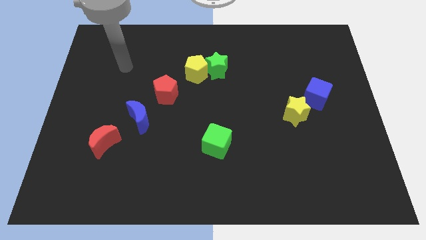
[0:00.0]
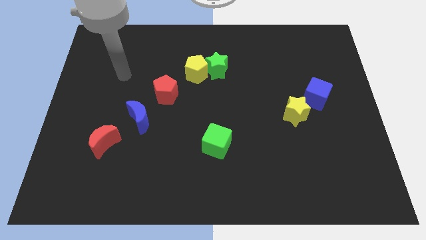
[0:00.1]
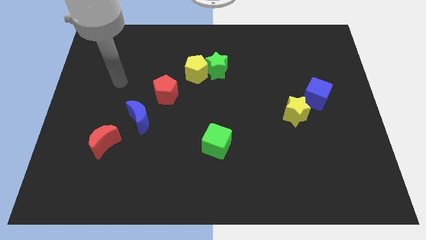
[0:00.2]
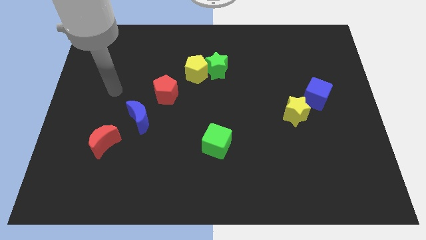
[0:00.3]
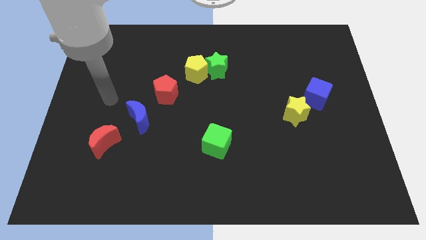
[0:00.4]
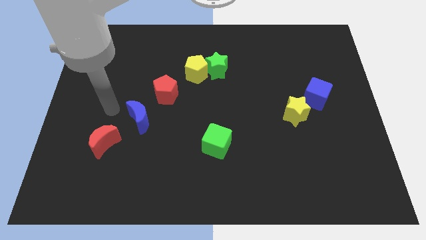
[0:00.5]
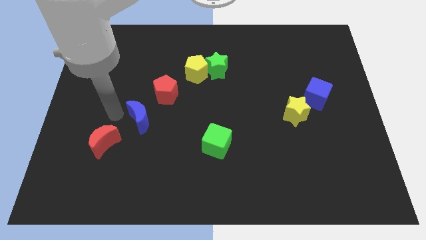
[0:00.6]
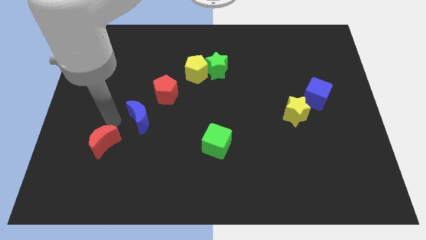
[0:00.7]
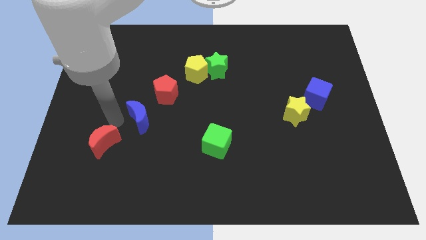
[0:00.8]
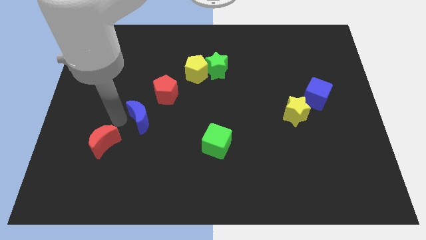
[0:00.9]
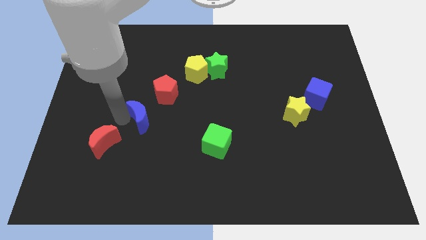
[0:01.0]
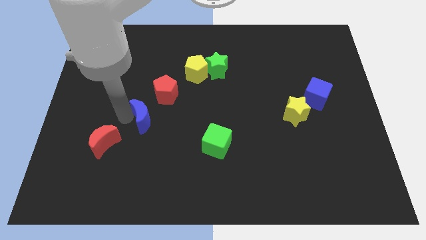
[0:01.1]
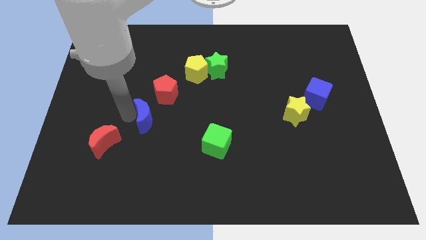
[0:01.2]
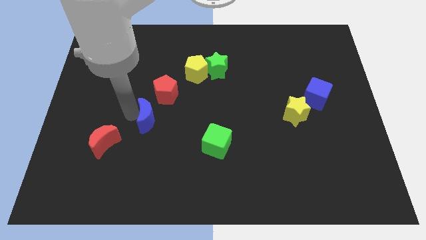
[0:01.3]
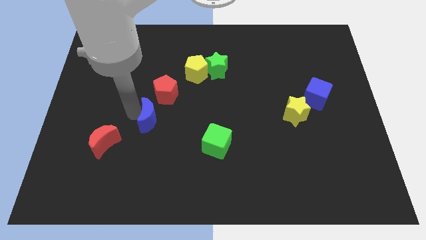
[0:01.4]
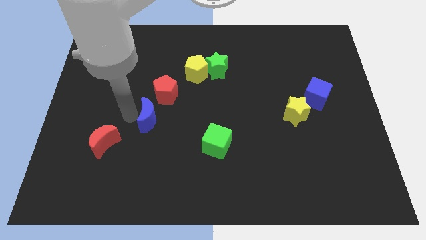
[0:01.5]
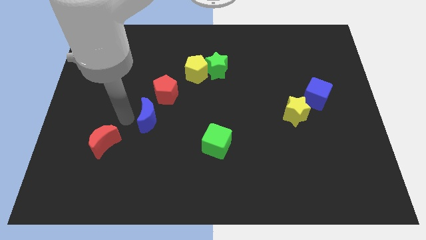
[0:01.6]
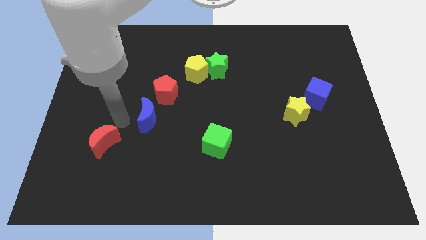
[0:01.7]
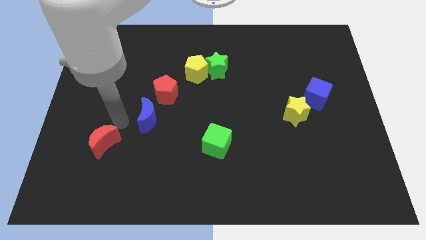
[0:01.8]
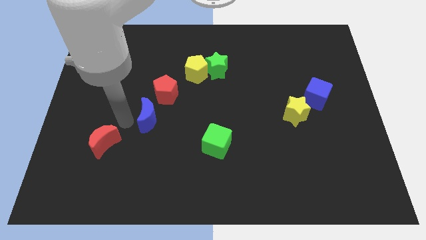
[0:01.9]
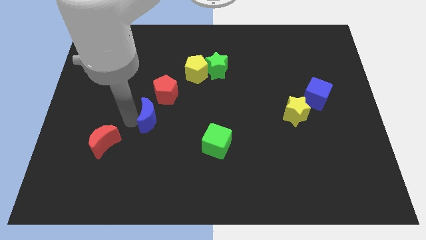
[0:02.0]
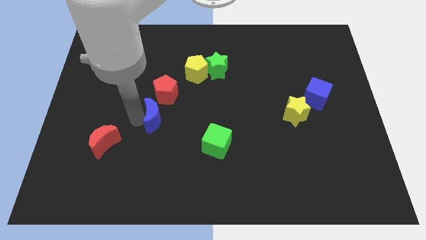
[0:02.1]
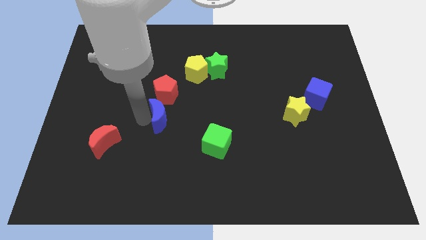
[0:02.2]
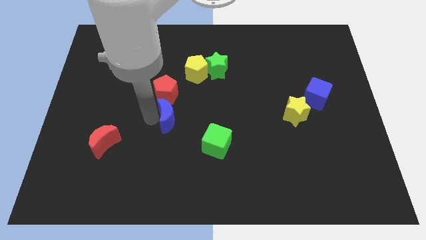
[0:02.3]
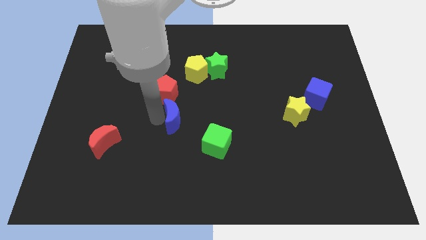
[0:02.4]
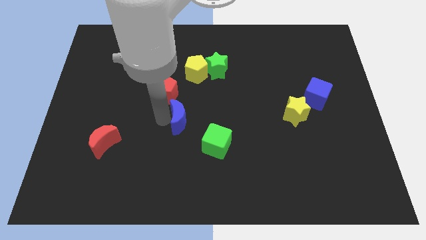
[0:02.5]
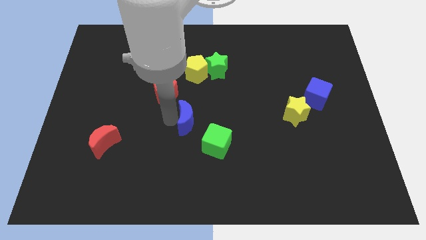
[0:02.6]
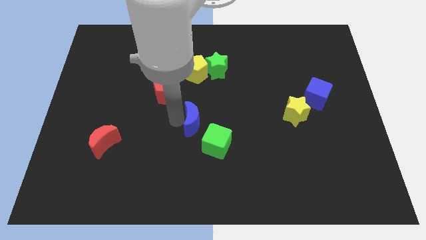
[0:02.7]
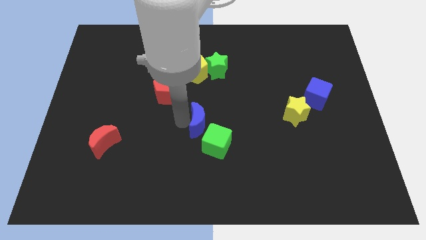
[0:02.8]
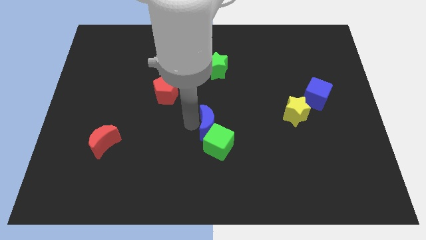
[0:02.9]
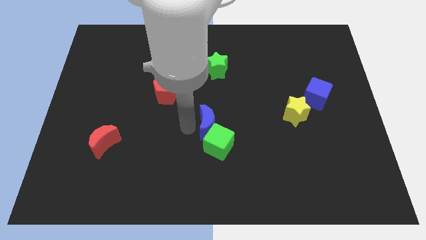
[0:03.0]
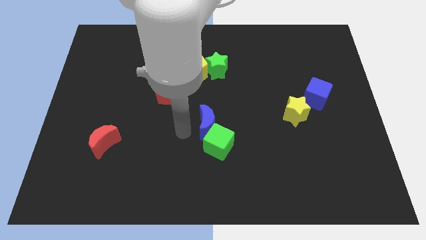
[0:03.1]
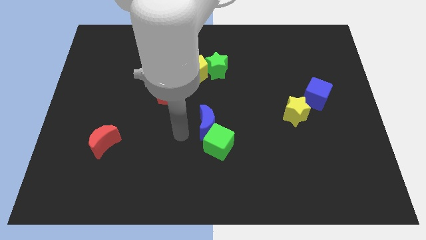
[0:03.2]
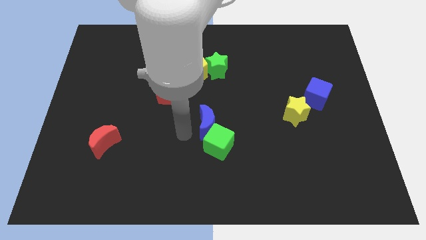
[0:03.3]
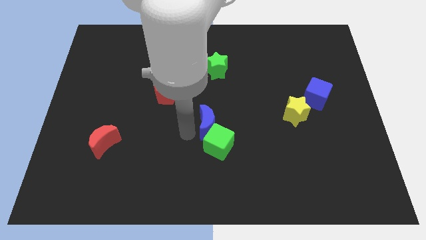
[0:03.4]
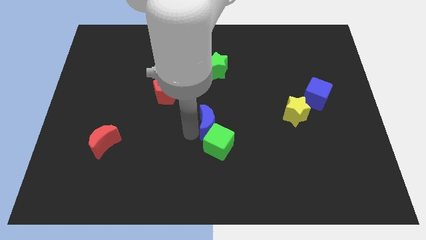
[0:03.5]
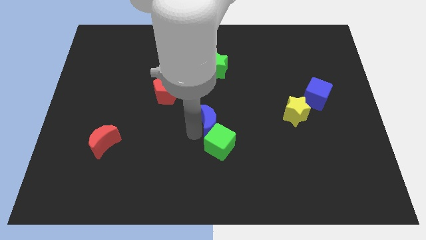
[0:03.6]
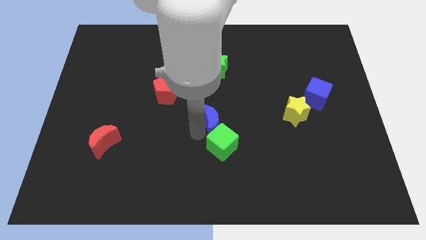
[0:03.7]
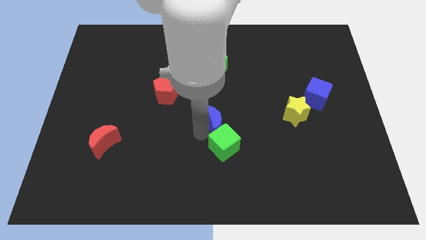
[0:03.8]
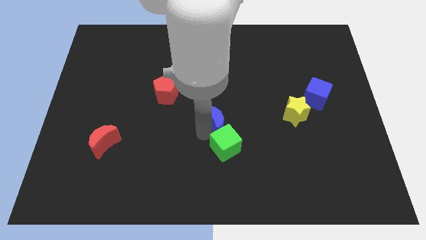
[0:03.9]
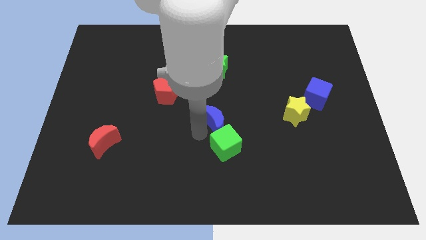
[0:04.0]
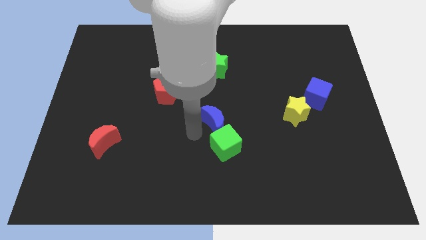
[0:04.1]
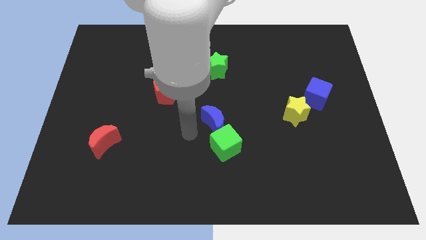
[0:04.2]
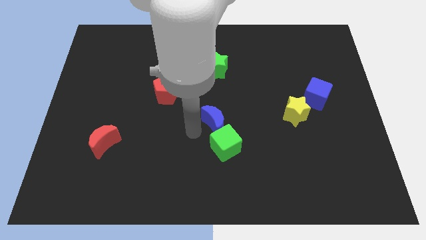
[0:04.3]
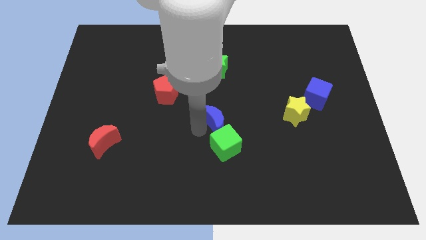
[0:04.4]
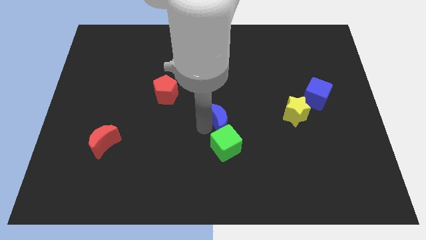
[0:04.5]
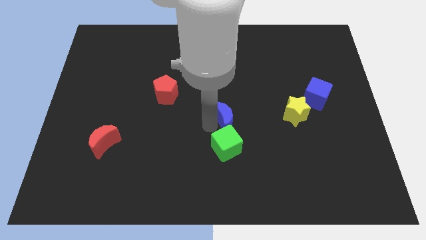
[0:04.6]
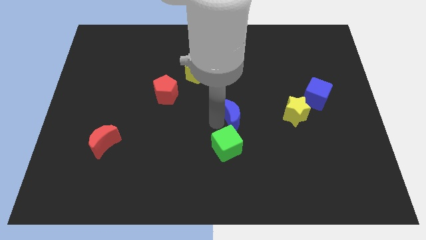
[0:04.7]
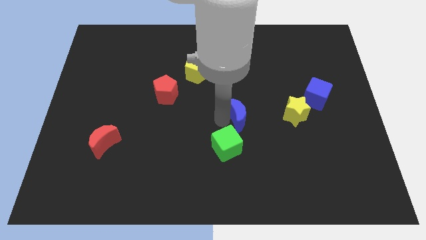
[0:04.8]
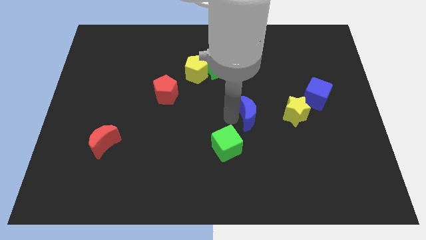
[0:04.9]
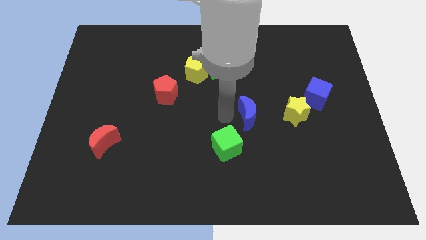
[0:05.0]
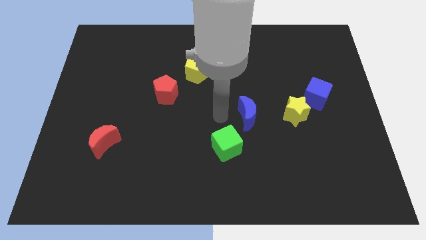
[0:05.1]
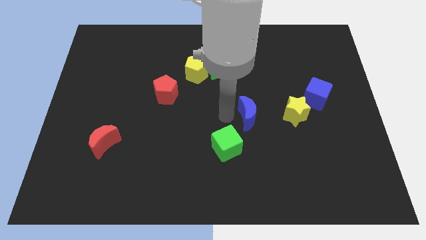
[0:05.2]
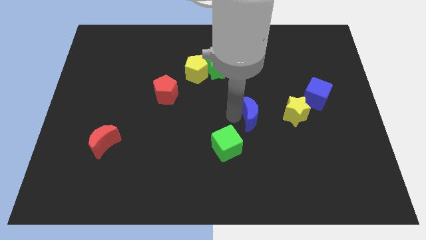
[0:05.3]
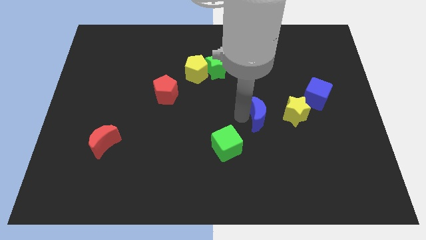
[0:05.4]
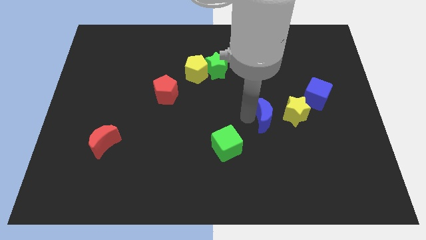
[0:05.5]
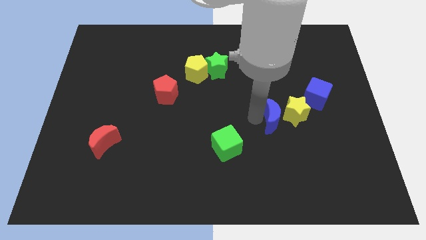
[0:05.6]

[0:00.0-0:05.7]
move the blue moon towards the yellow star

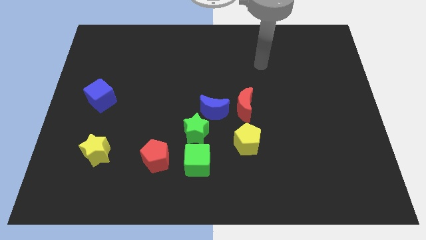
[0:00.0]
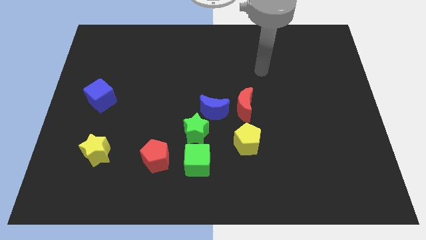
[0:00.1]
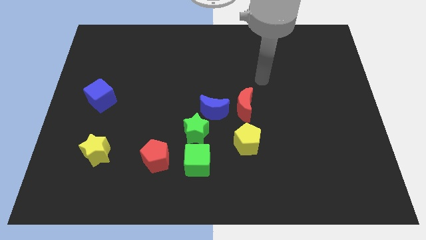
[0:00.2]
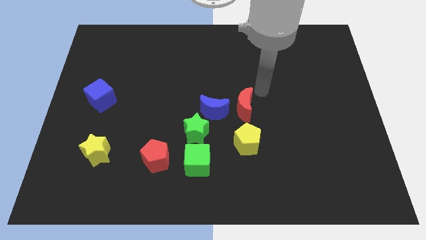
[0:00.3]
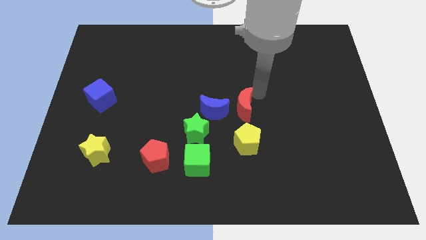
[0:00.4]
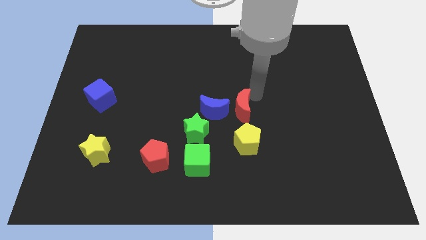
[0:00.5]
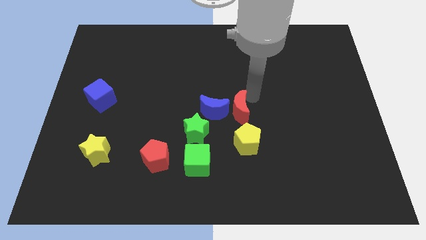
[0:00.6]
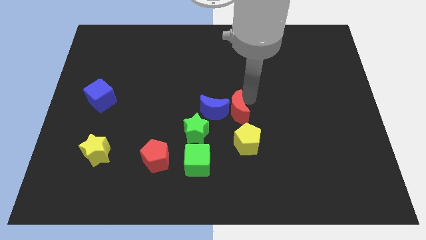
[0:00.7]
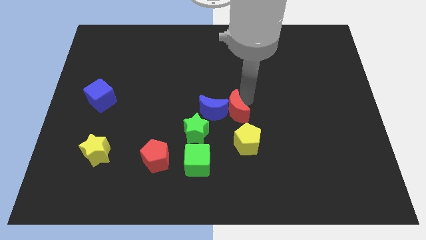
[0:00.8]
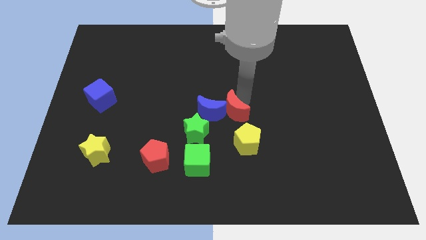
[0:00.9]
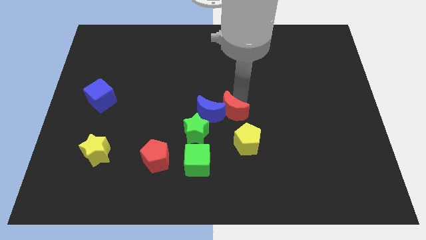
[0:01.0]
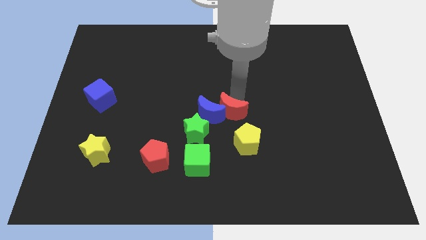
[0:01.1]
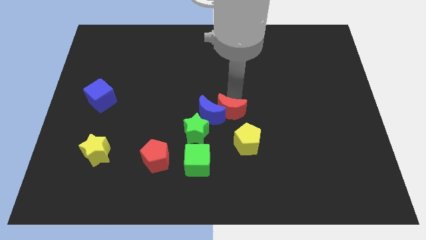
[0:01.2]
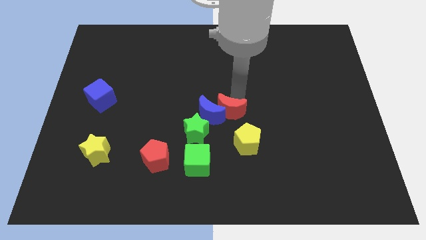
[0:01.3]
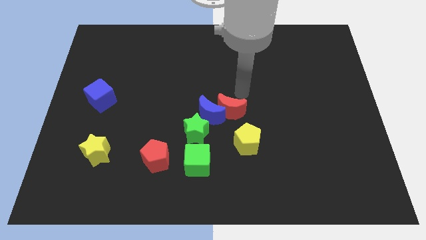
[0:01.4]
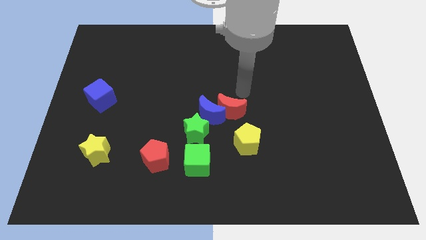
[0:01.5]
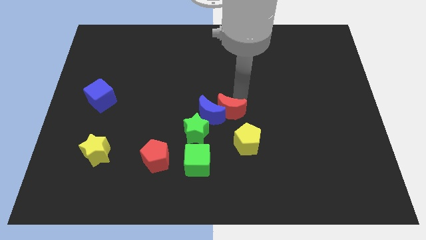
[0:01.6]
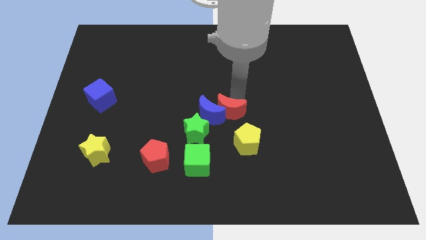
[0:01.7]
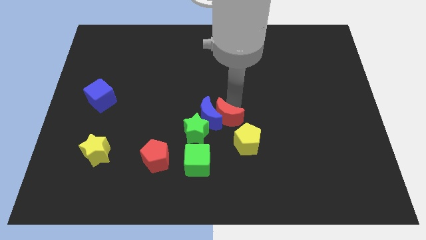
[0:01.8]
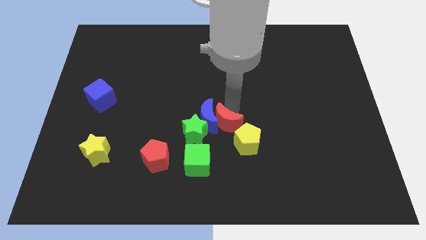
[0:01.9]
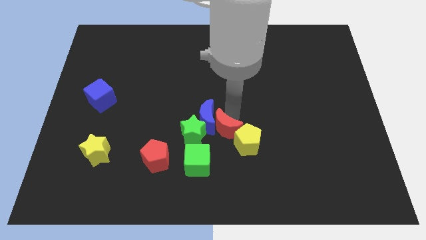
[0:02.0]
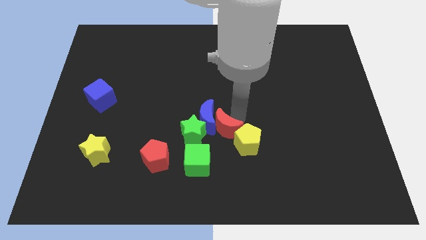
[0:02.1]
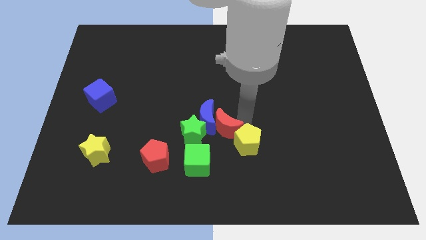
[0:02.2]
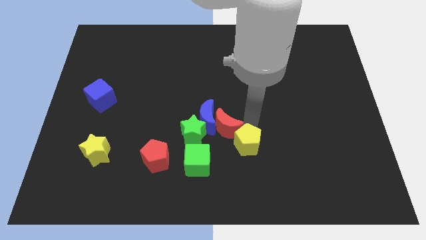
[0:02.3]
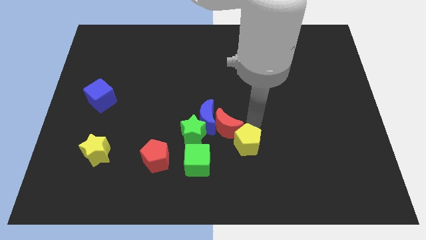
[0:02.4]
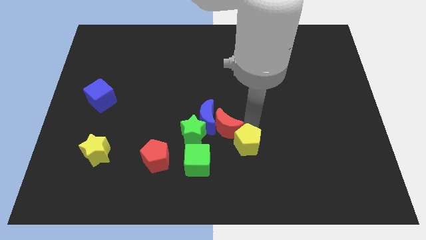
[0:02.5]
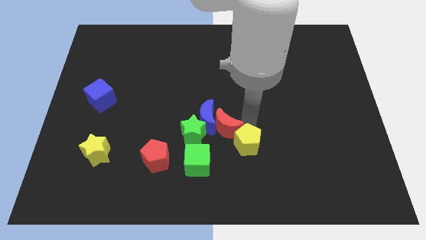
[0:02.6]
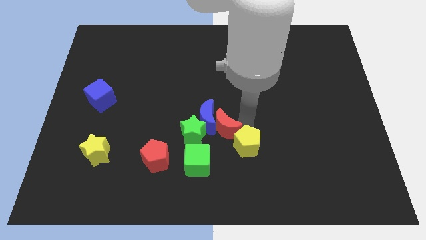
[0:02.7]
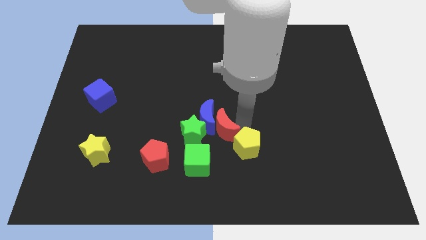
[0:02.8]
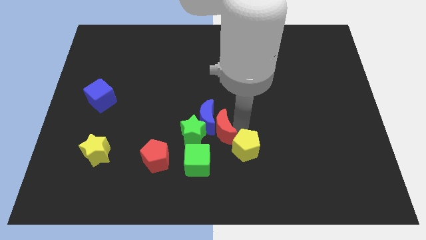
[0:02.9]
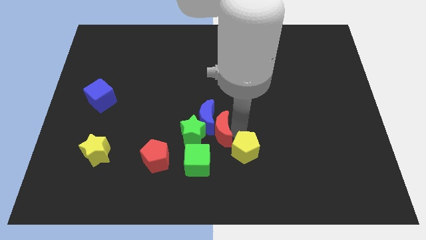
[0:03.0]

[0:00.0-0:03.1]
slide the red moon to the green star
